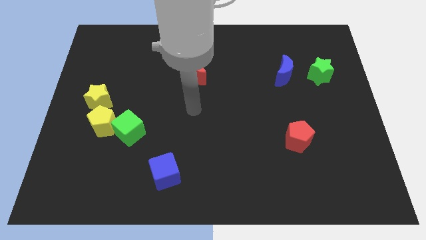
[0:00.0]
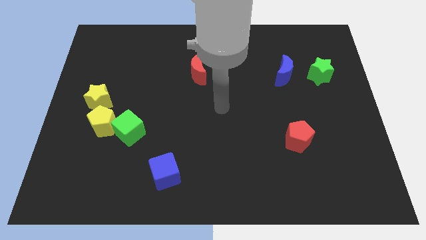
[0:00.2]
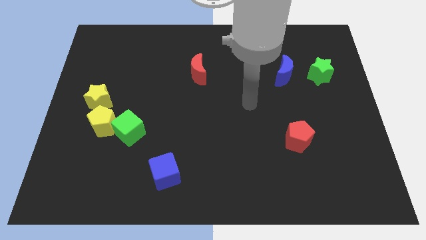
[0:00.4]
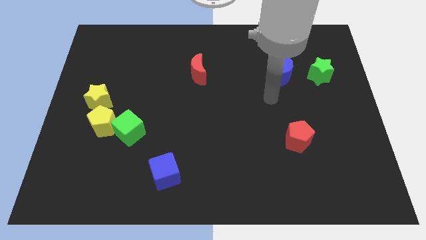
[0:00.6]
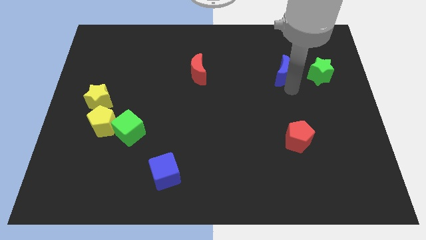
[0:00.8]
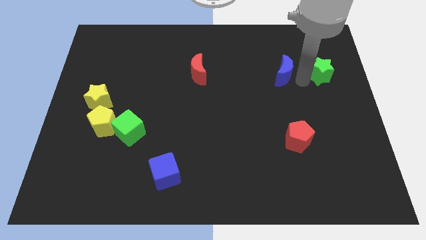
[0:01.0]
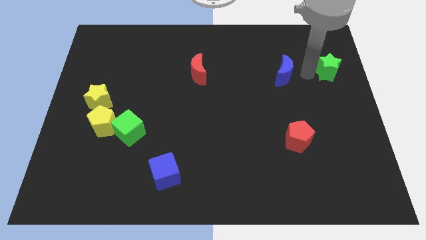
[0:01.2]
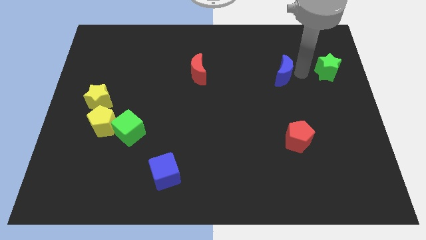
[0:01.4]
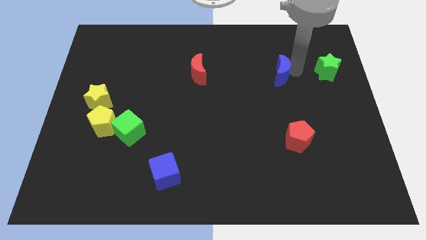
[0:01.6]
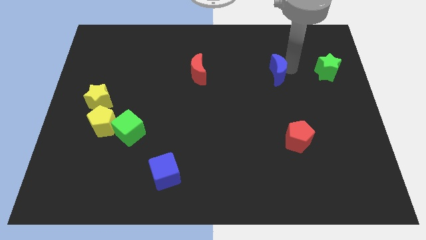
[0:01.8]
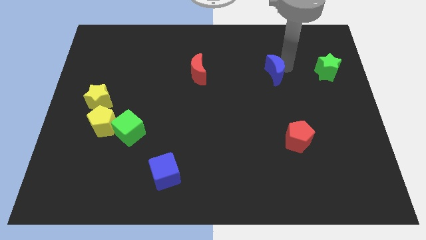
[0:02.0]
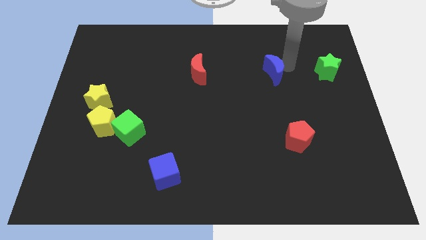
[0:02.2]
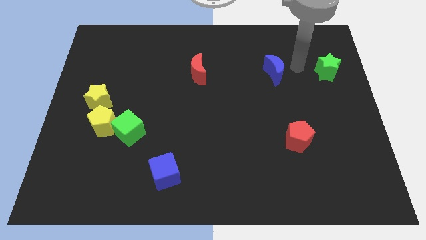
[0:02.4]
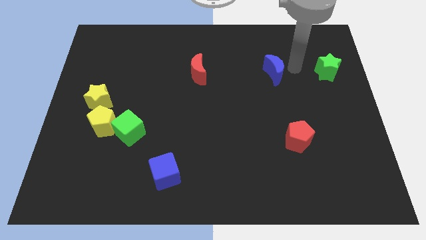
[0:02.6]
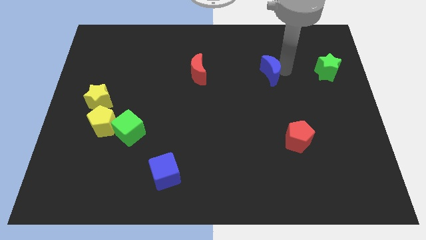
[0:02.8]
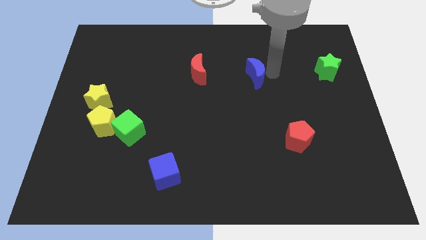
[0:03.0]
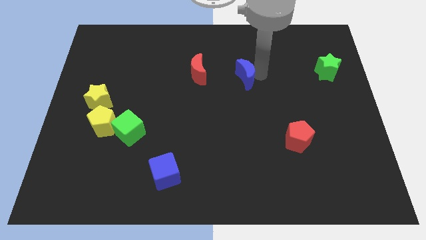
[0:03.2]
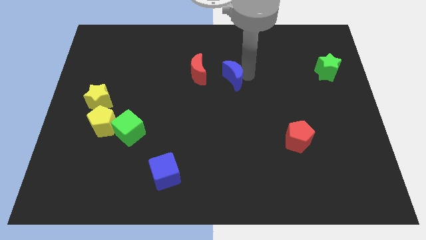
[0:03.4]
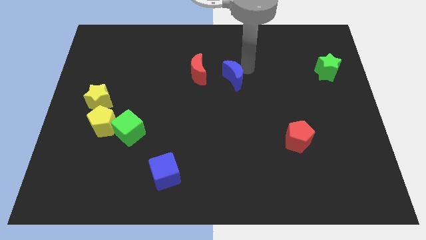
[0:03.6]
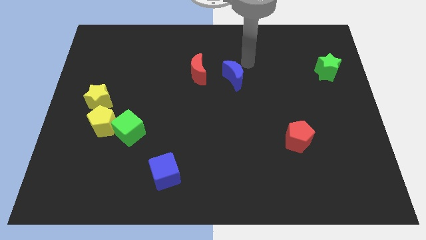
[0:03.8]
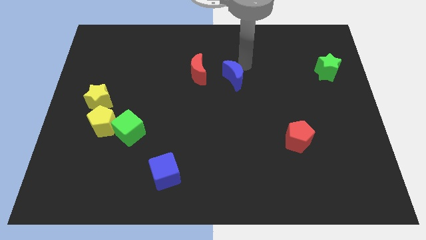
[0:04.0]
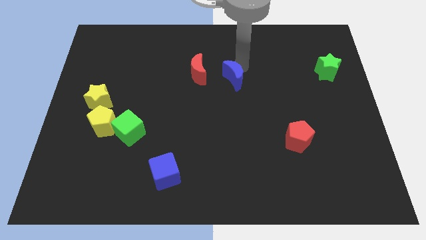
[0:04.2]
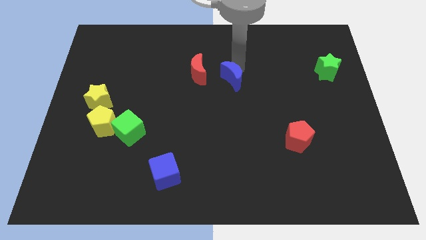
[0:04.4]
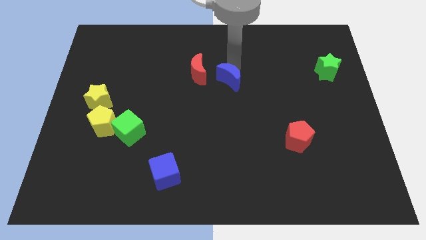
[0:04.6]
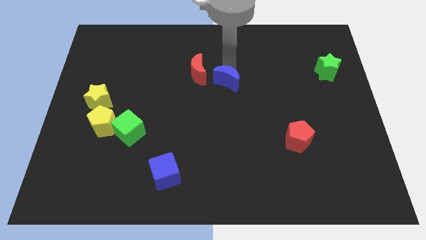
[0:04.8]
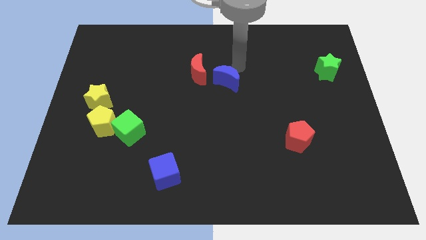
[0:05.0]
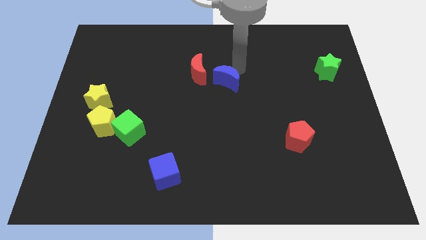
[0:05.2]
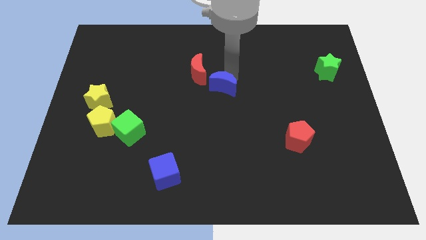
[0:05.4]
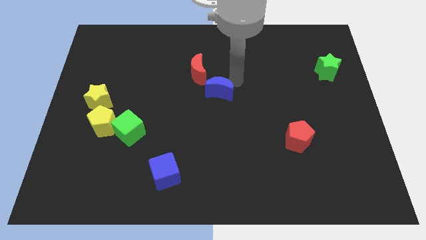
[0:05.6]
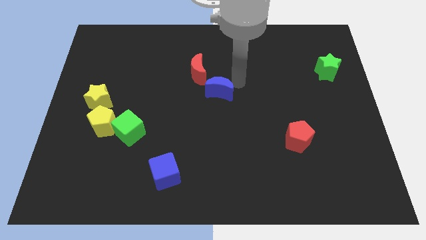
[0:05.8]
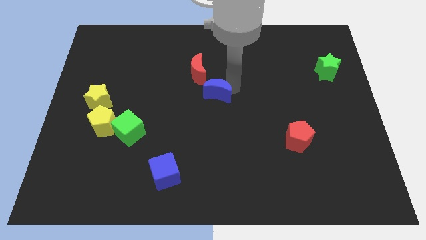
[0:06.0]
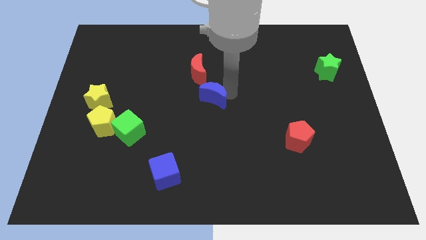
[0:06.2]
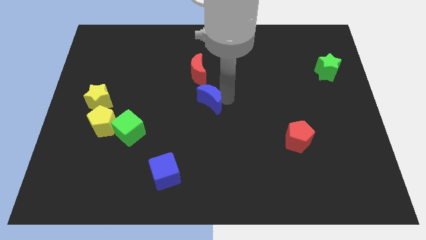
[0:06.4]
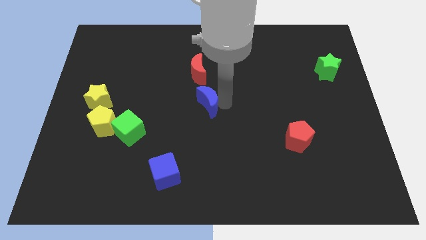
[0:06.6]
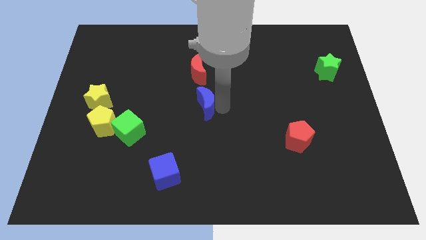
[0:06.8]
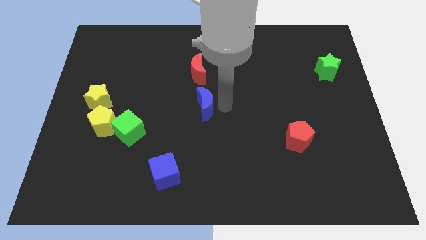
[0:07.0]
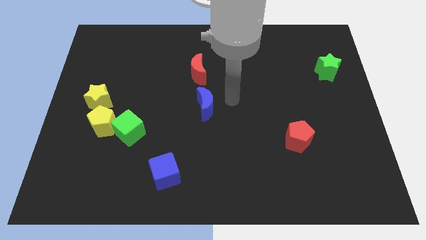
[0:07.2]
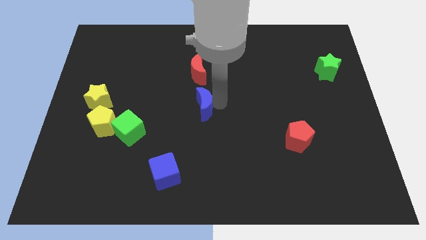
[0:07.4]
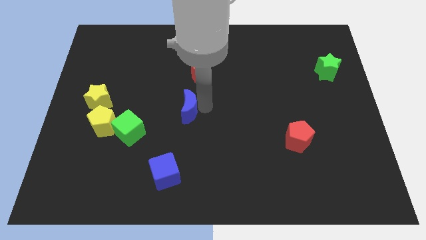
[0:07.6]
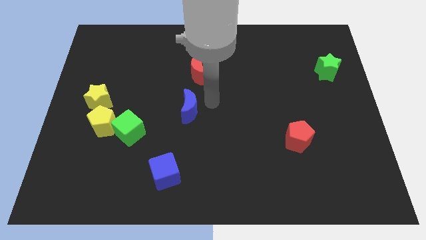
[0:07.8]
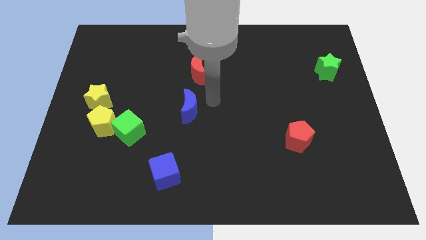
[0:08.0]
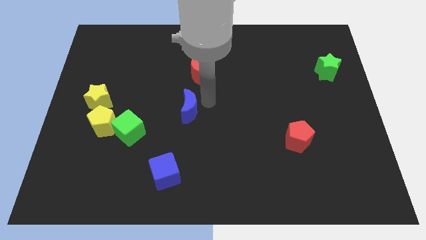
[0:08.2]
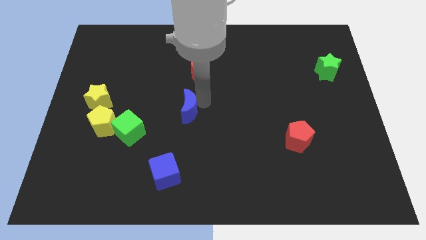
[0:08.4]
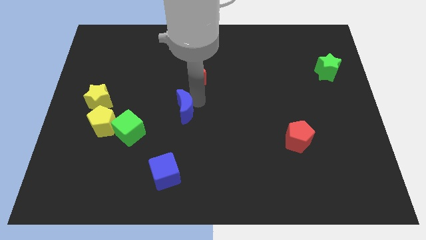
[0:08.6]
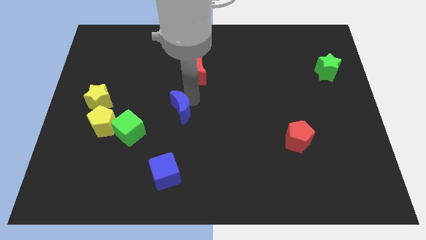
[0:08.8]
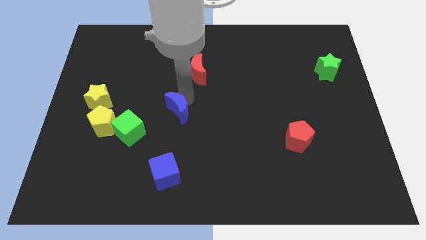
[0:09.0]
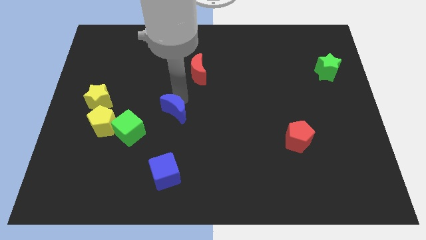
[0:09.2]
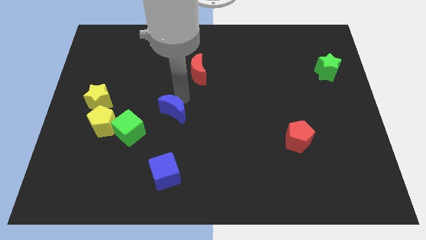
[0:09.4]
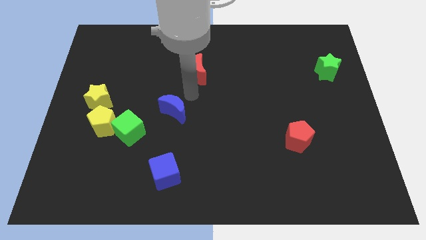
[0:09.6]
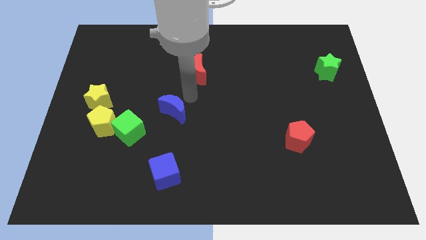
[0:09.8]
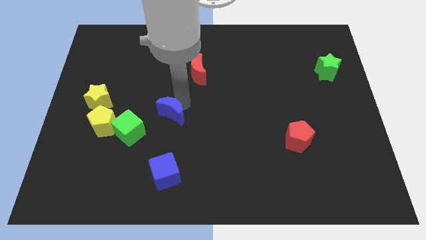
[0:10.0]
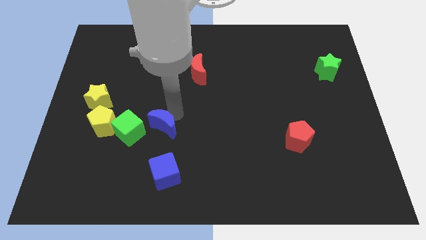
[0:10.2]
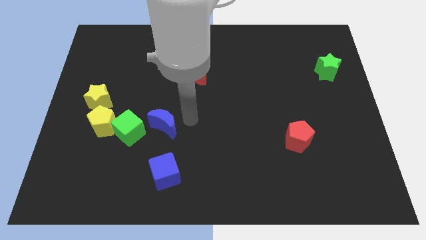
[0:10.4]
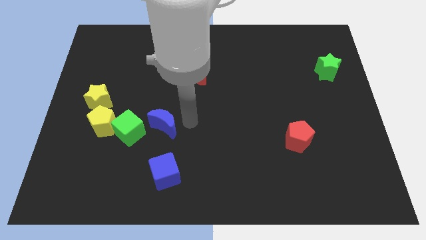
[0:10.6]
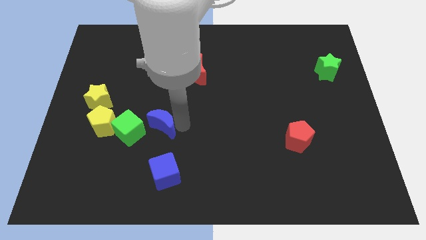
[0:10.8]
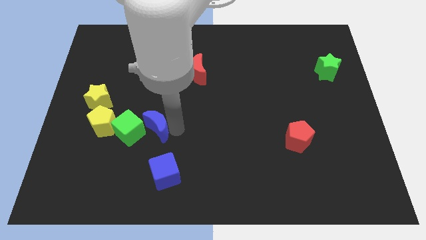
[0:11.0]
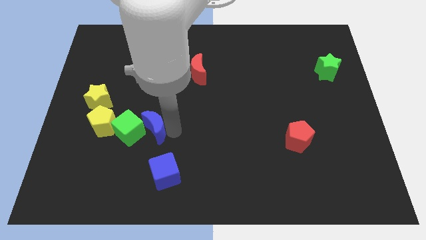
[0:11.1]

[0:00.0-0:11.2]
push the blue moon next to the green cube

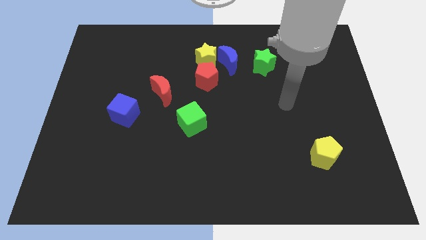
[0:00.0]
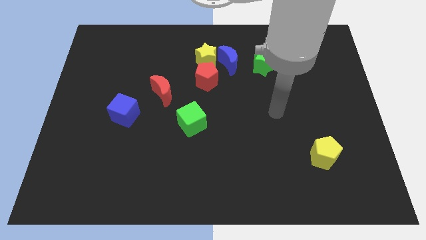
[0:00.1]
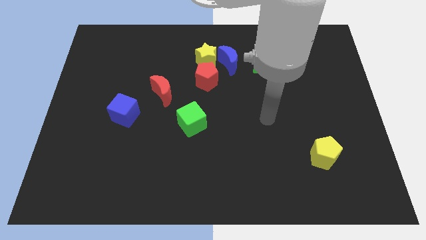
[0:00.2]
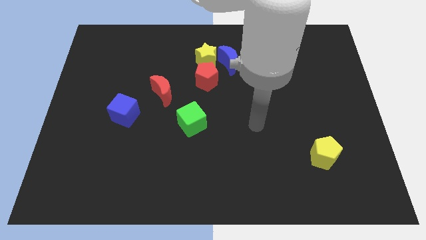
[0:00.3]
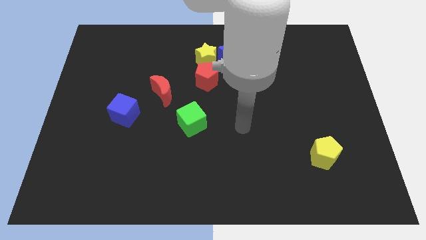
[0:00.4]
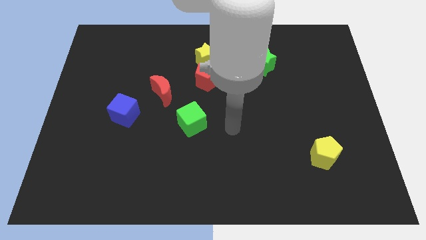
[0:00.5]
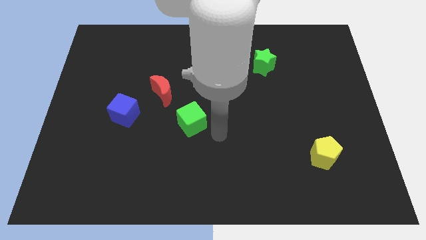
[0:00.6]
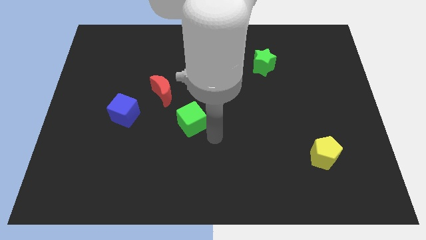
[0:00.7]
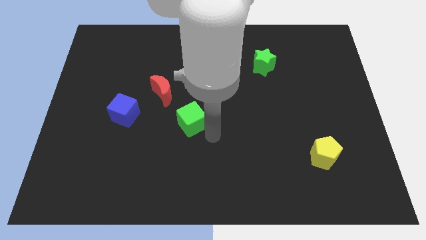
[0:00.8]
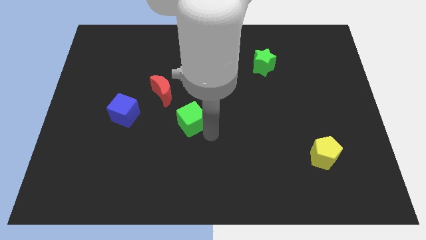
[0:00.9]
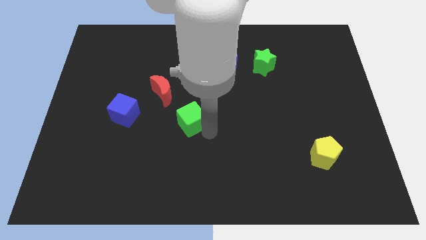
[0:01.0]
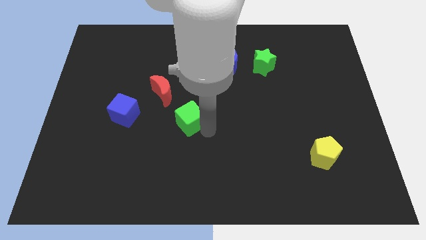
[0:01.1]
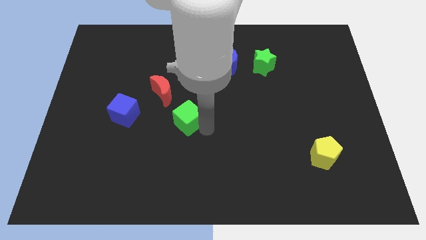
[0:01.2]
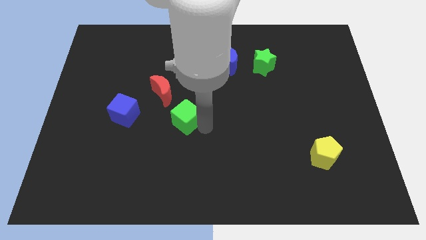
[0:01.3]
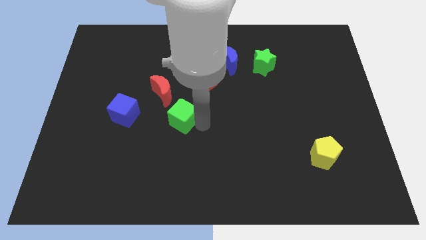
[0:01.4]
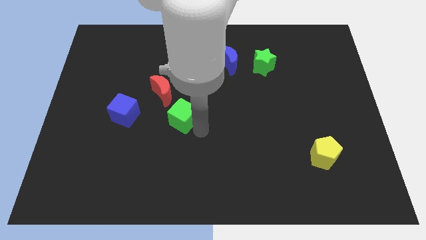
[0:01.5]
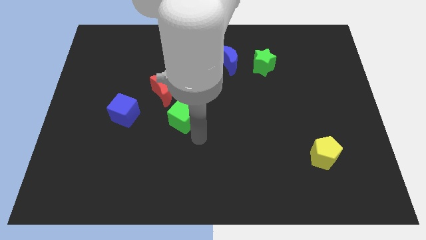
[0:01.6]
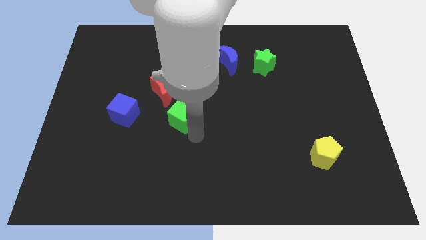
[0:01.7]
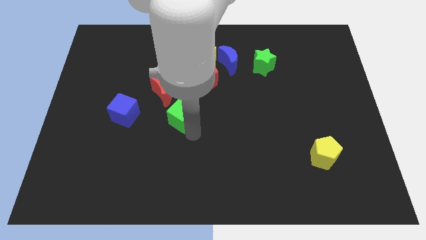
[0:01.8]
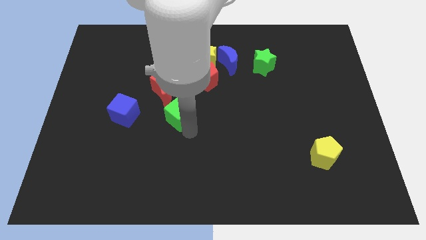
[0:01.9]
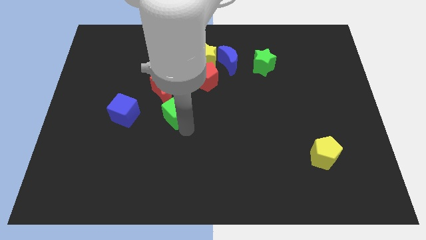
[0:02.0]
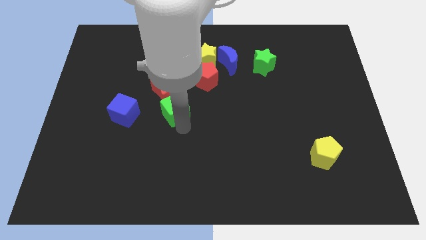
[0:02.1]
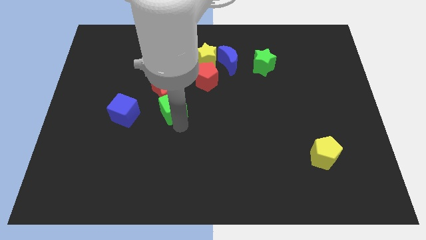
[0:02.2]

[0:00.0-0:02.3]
put the green cube close to the red moon
